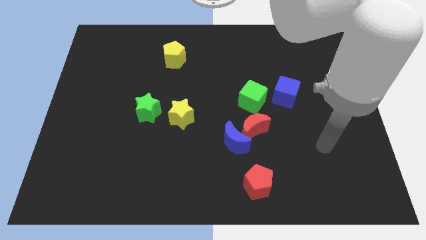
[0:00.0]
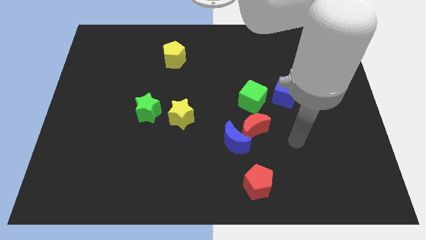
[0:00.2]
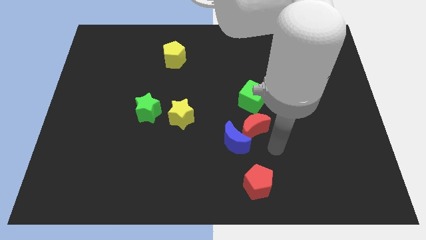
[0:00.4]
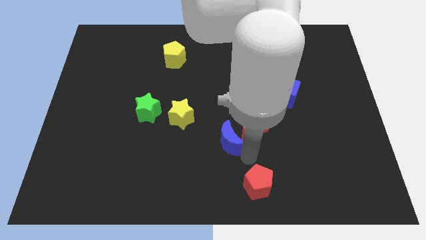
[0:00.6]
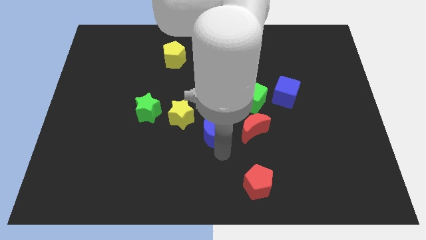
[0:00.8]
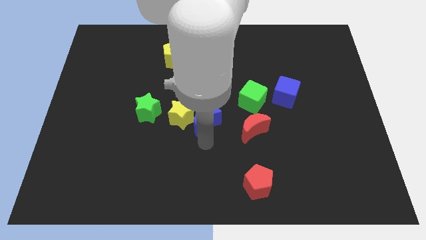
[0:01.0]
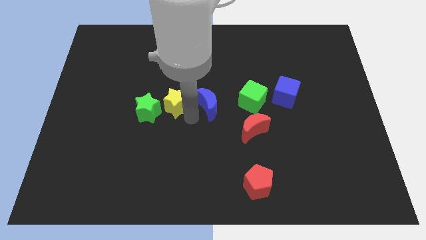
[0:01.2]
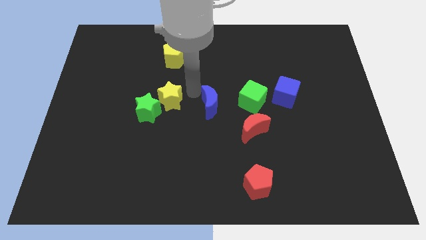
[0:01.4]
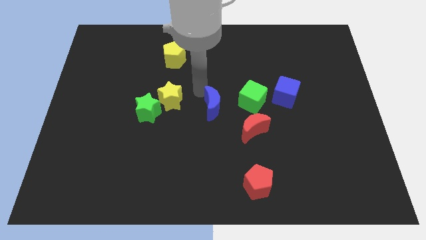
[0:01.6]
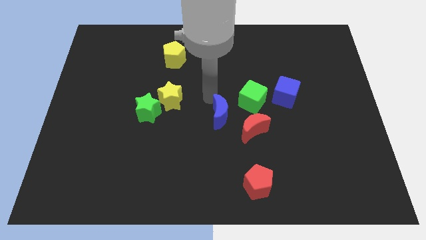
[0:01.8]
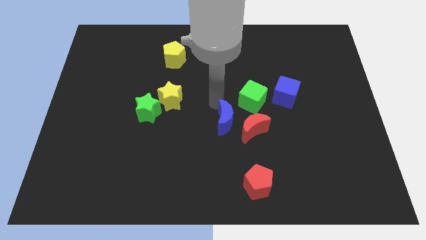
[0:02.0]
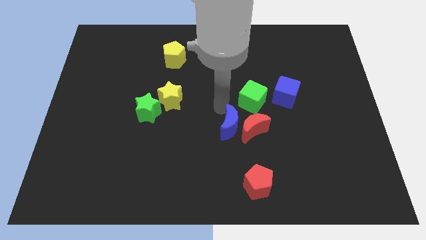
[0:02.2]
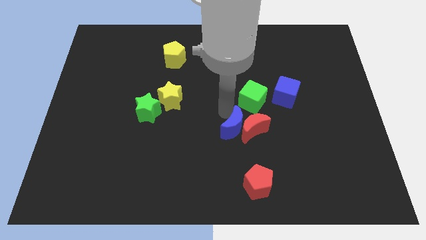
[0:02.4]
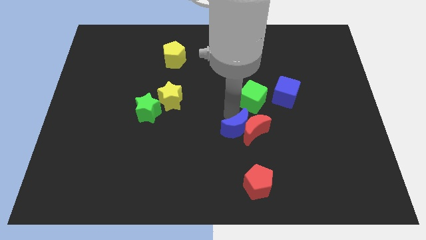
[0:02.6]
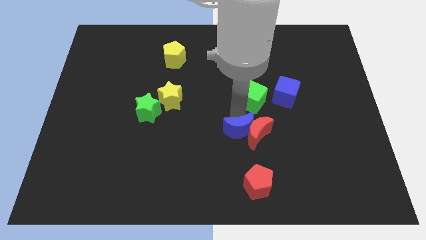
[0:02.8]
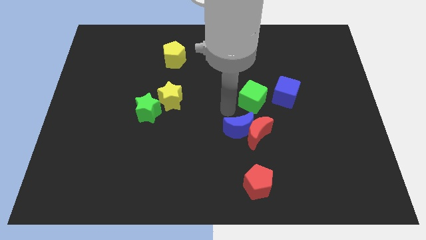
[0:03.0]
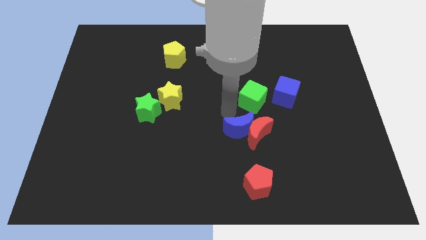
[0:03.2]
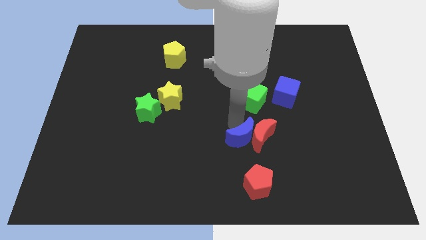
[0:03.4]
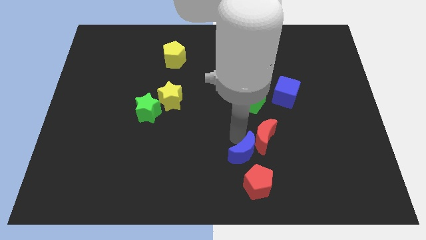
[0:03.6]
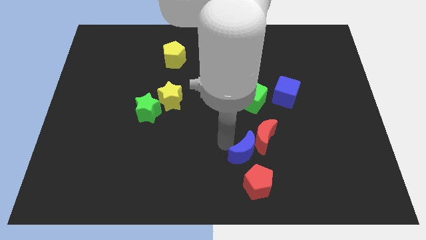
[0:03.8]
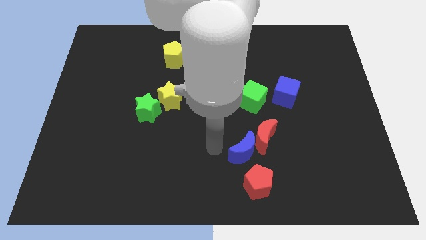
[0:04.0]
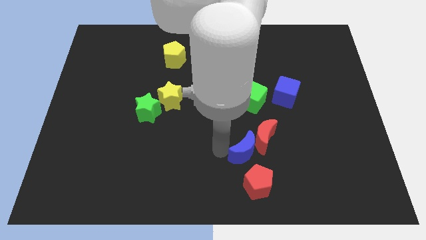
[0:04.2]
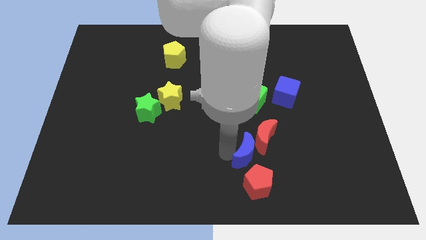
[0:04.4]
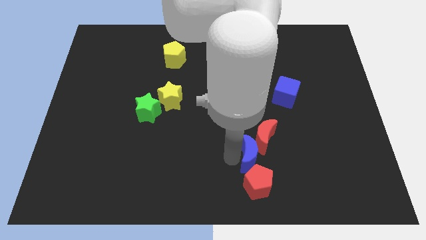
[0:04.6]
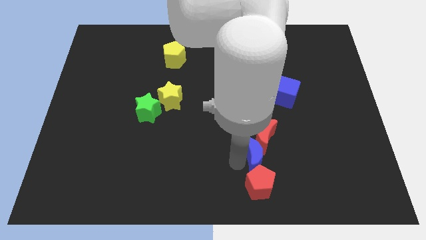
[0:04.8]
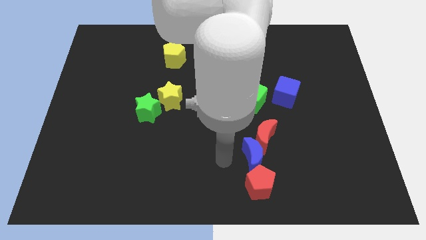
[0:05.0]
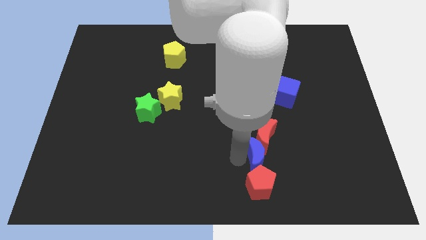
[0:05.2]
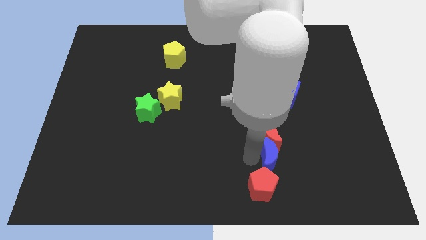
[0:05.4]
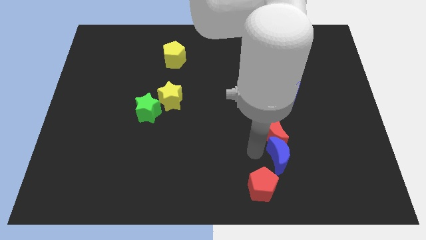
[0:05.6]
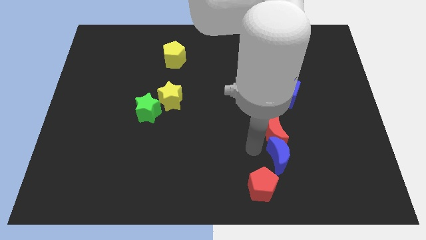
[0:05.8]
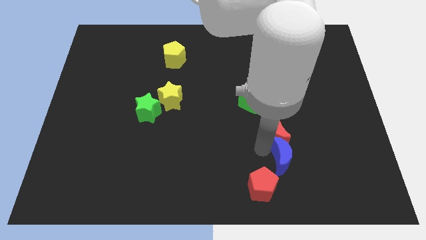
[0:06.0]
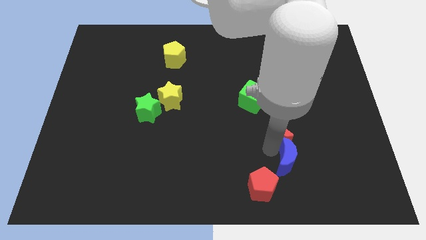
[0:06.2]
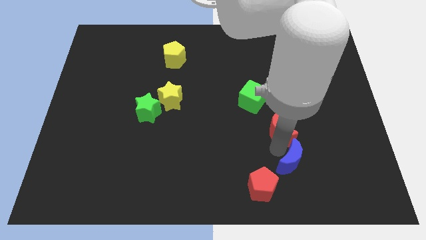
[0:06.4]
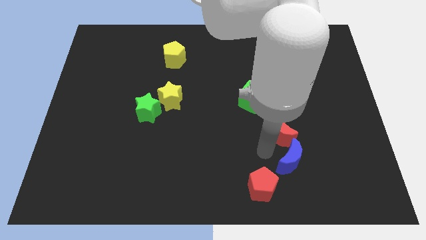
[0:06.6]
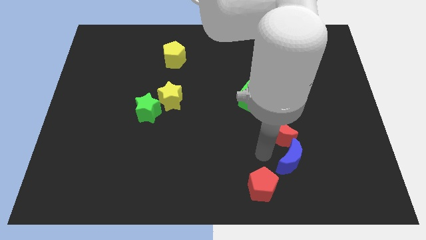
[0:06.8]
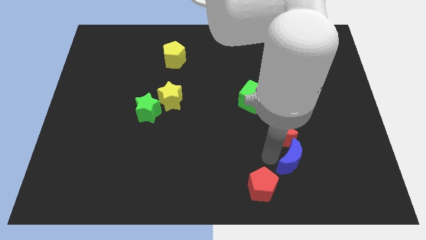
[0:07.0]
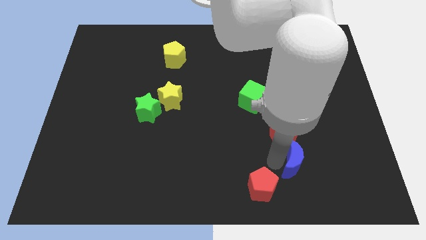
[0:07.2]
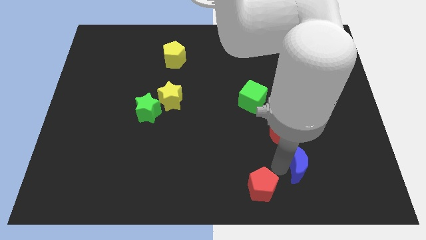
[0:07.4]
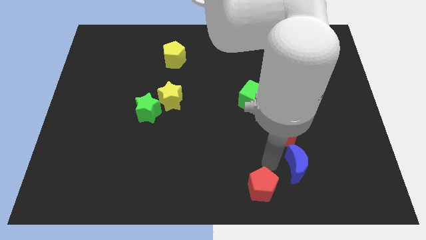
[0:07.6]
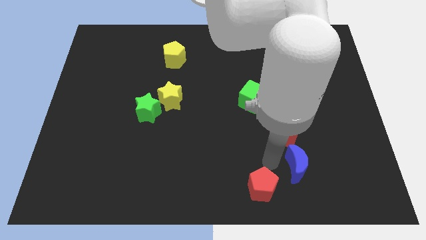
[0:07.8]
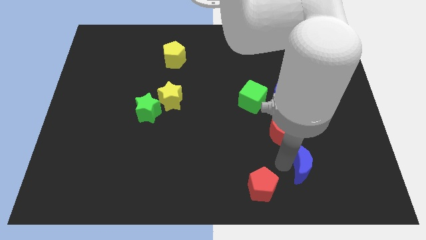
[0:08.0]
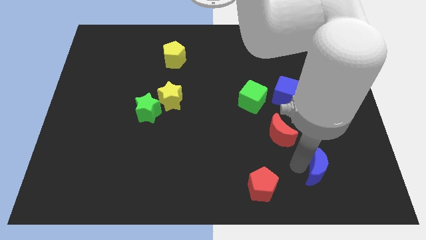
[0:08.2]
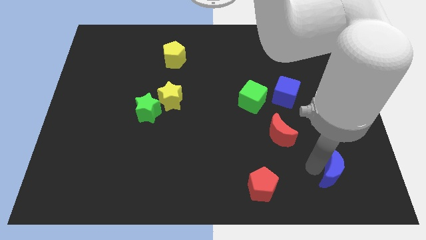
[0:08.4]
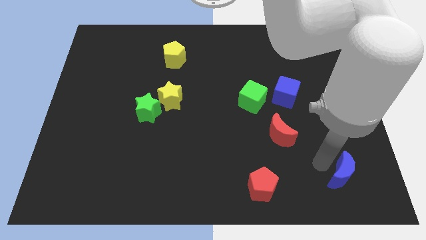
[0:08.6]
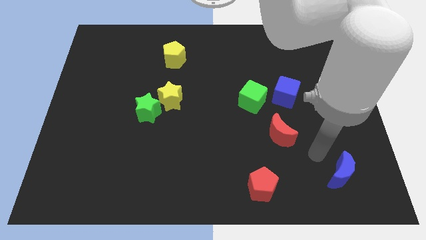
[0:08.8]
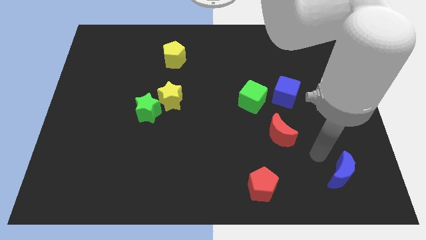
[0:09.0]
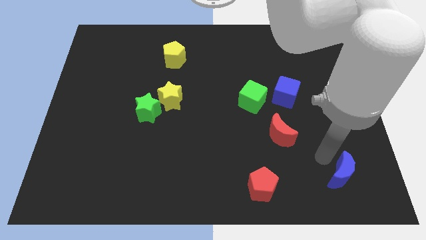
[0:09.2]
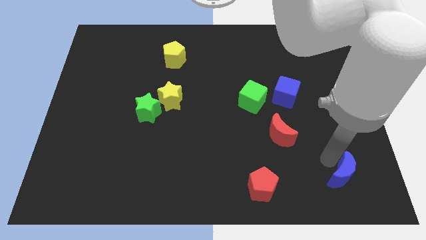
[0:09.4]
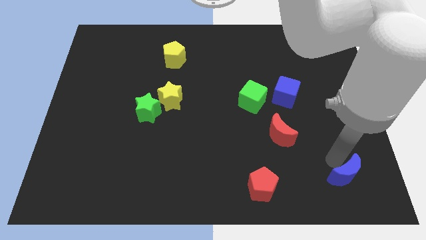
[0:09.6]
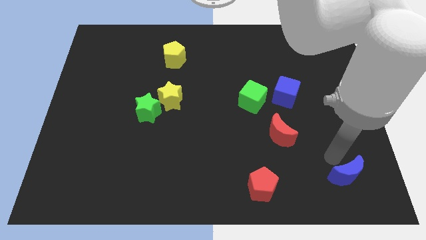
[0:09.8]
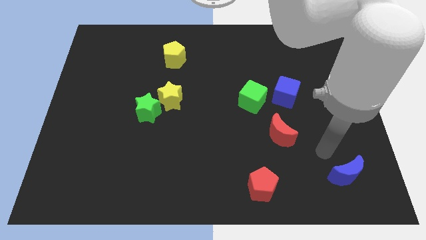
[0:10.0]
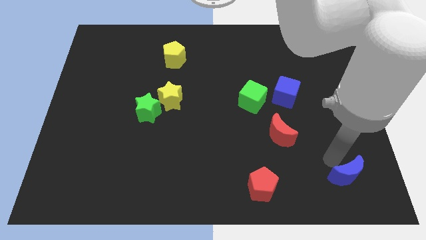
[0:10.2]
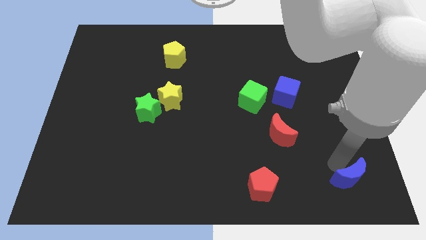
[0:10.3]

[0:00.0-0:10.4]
move the blue moon to the lower right corner

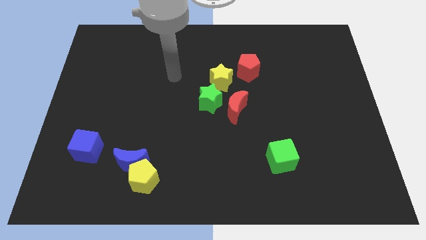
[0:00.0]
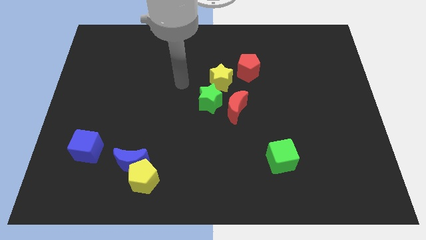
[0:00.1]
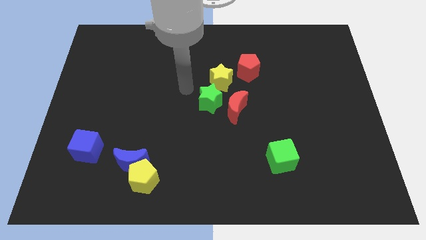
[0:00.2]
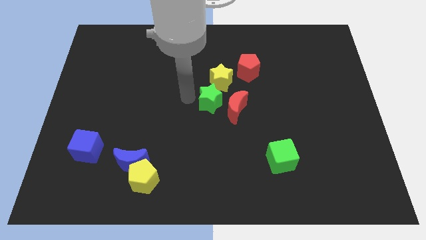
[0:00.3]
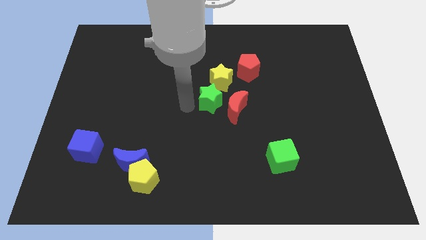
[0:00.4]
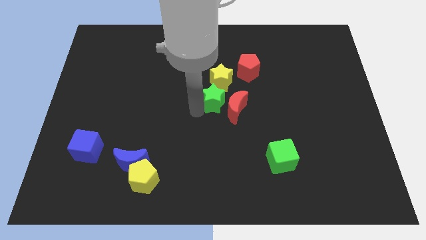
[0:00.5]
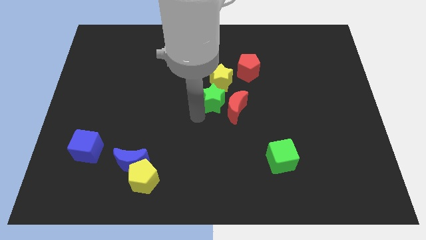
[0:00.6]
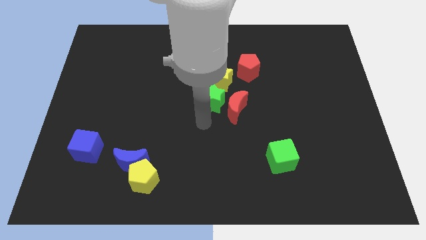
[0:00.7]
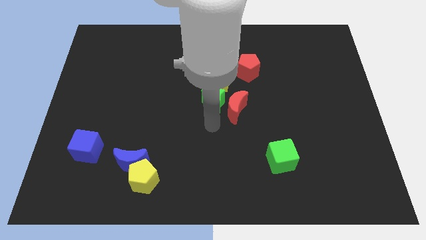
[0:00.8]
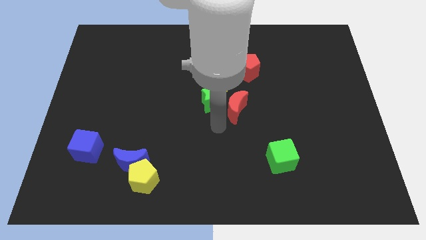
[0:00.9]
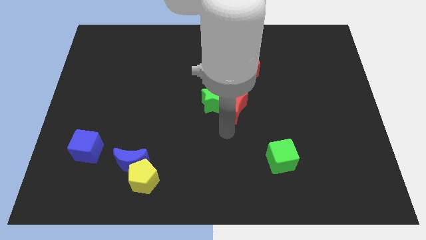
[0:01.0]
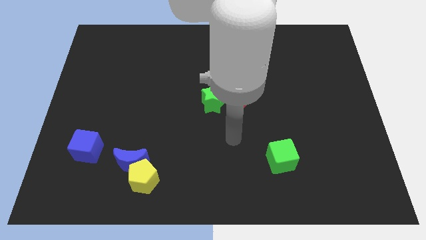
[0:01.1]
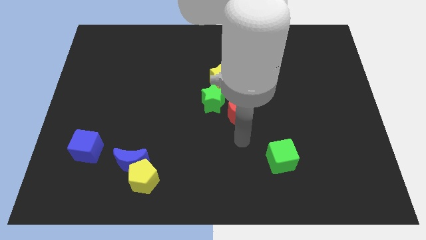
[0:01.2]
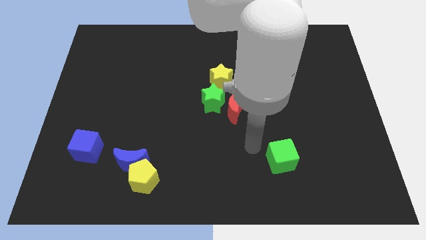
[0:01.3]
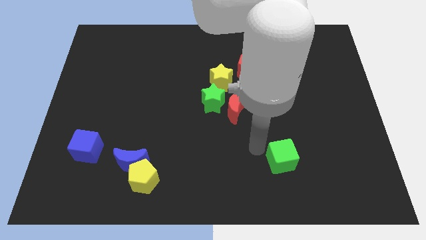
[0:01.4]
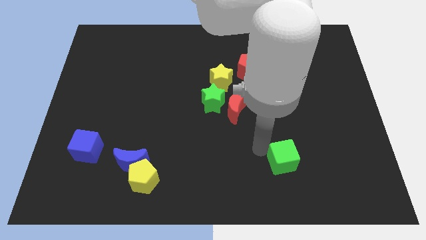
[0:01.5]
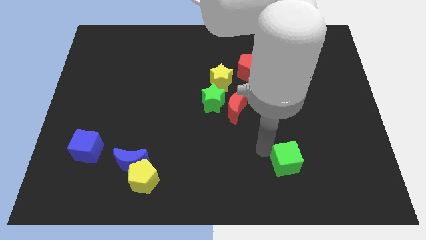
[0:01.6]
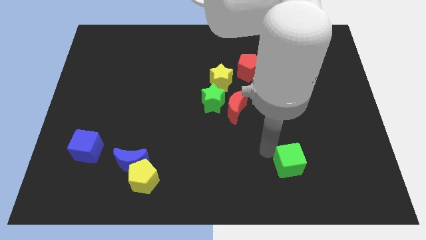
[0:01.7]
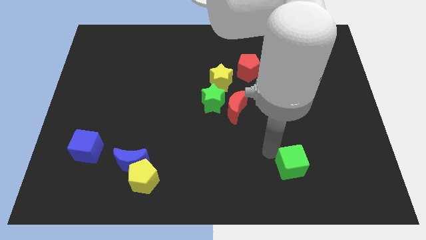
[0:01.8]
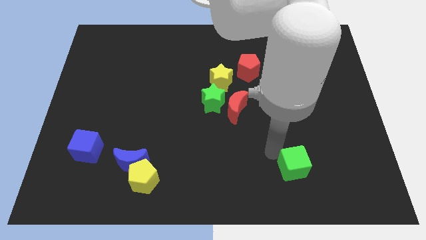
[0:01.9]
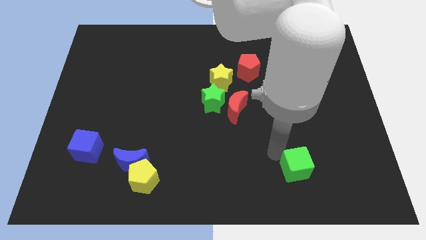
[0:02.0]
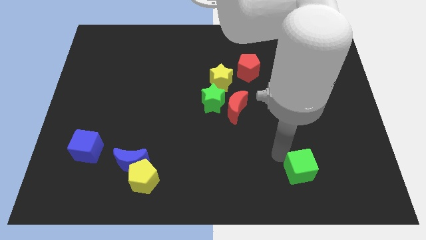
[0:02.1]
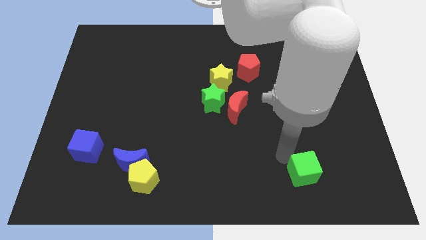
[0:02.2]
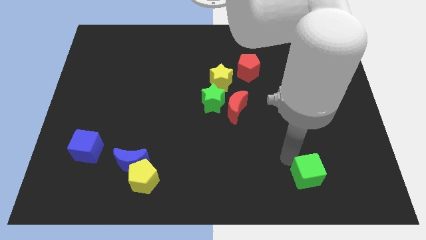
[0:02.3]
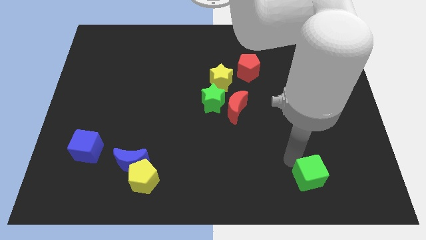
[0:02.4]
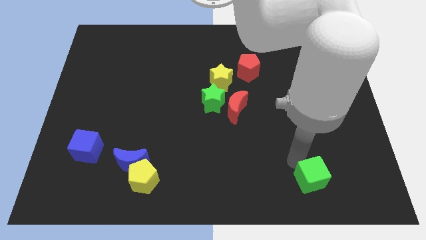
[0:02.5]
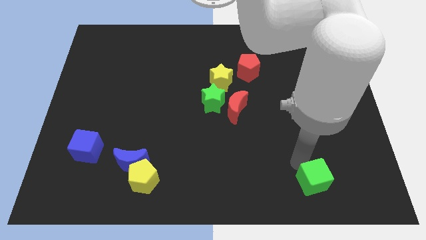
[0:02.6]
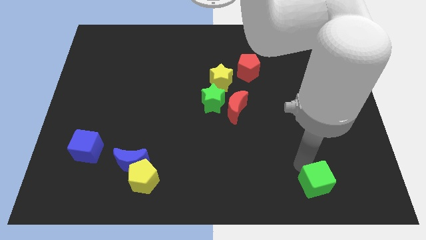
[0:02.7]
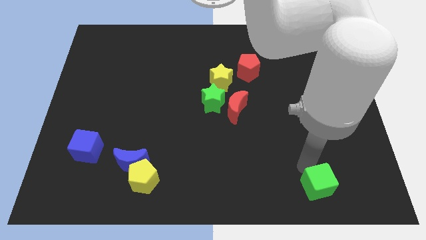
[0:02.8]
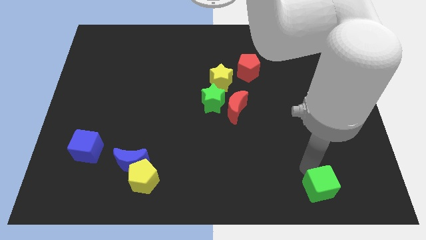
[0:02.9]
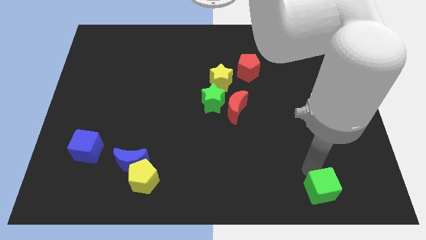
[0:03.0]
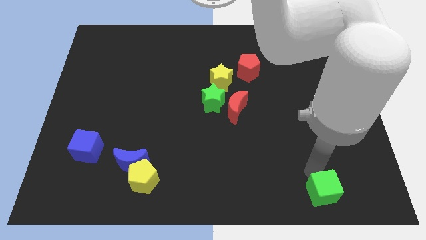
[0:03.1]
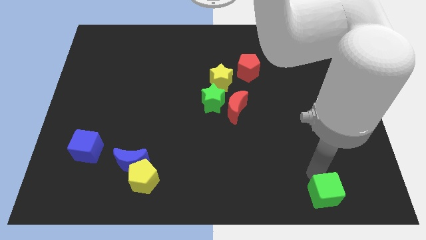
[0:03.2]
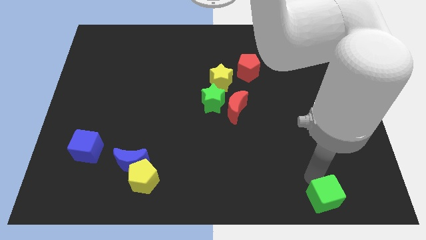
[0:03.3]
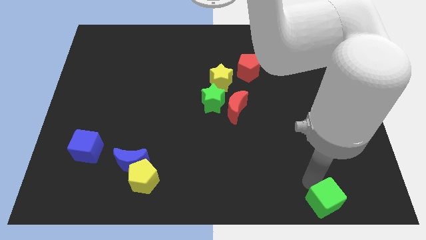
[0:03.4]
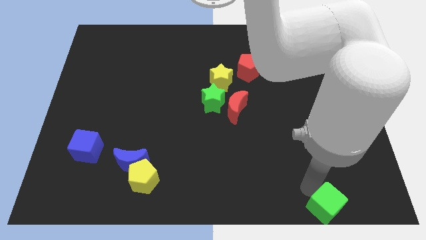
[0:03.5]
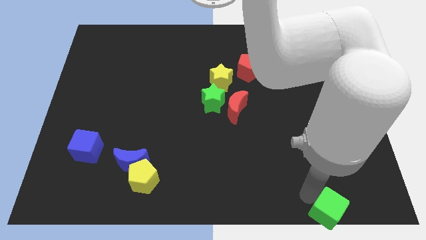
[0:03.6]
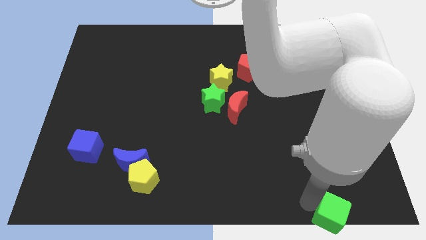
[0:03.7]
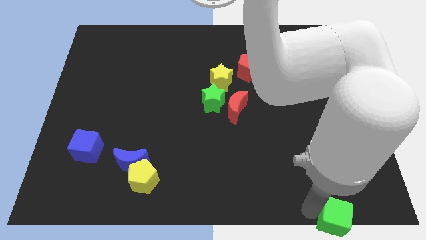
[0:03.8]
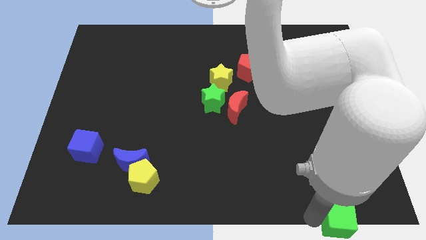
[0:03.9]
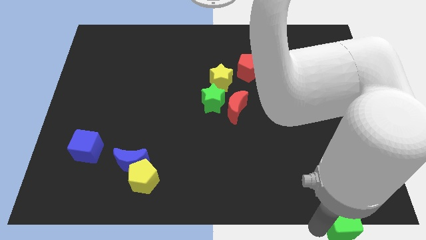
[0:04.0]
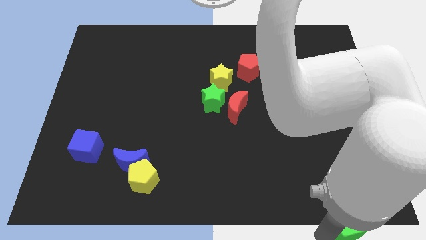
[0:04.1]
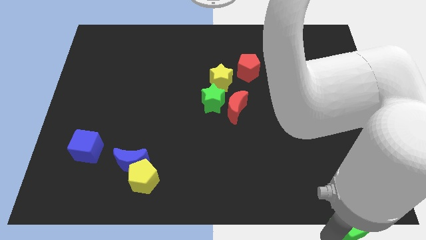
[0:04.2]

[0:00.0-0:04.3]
put the green cube to the bottom right of the board
